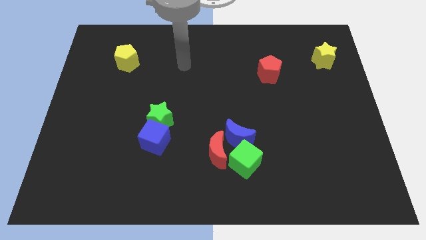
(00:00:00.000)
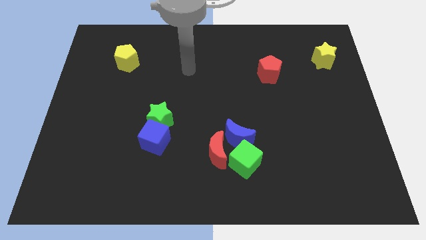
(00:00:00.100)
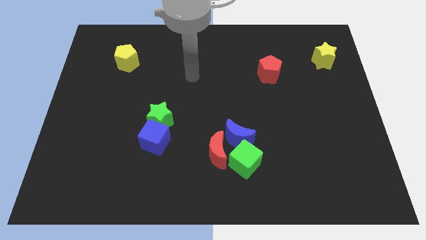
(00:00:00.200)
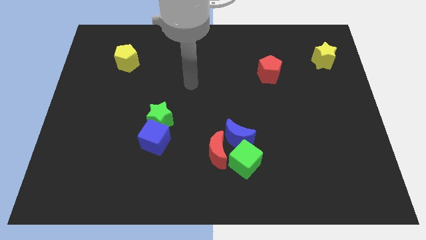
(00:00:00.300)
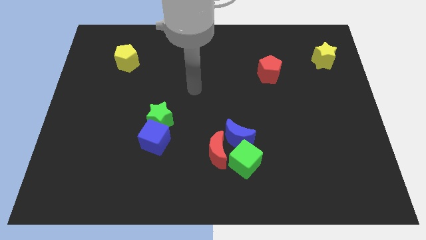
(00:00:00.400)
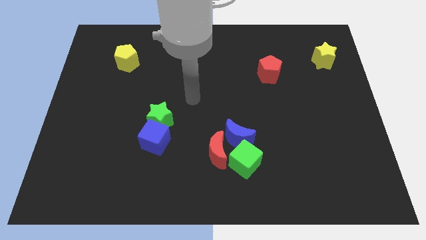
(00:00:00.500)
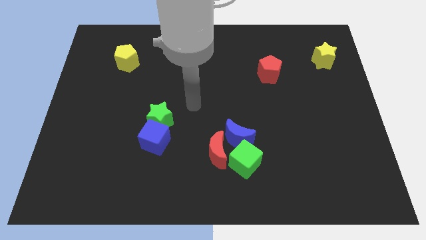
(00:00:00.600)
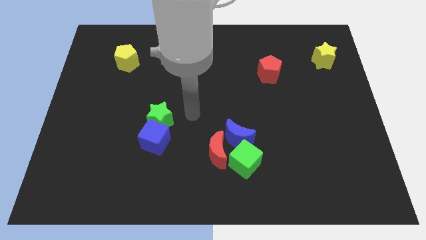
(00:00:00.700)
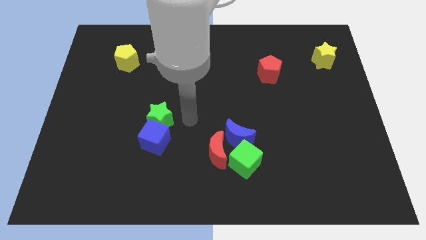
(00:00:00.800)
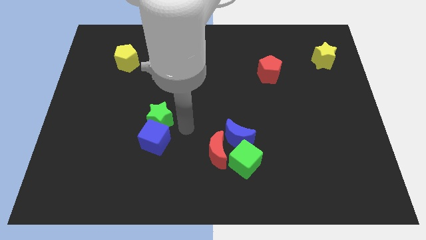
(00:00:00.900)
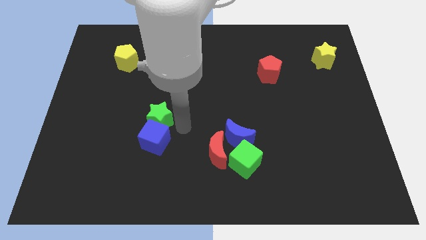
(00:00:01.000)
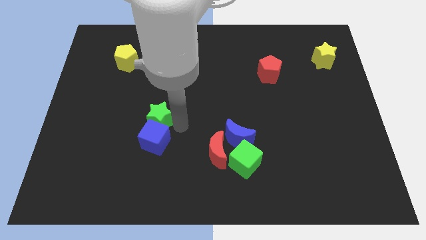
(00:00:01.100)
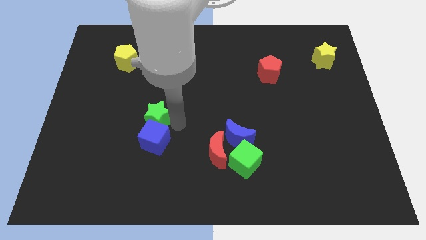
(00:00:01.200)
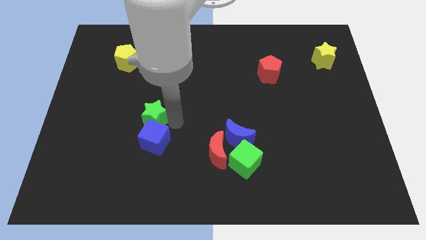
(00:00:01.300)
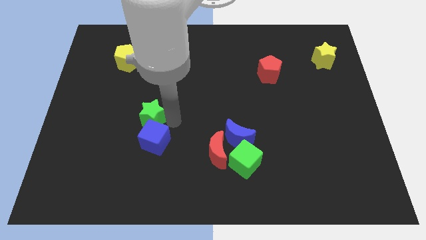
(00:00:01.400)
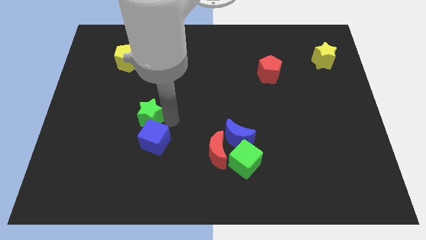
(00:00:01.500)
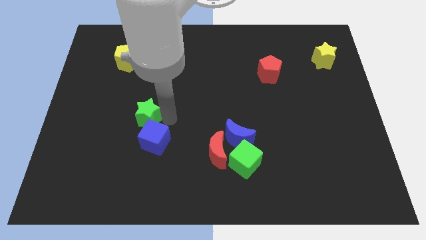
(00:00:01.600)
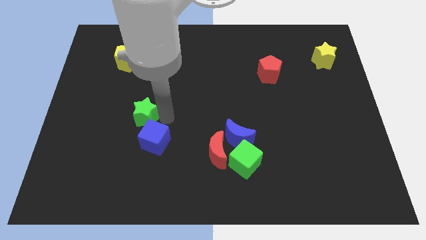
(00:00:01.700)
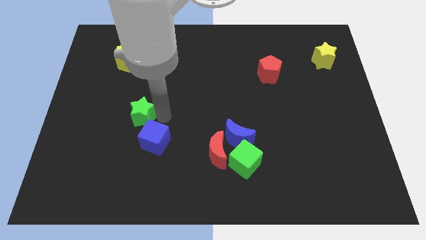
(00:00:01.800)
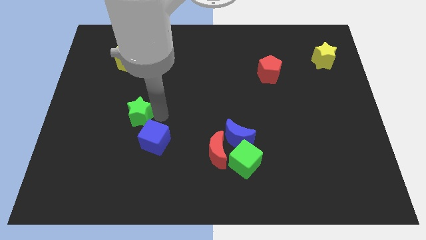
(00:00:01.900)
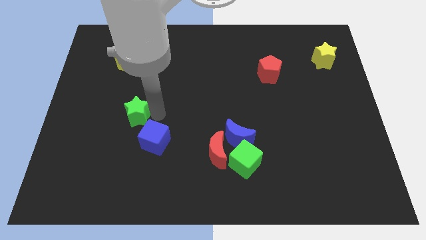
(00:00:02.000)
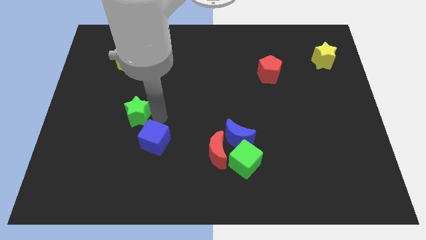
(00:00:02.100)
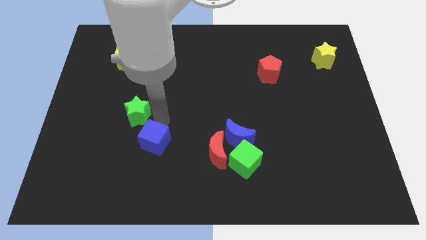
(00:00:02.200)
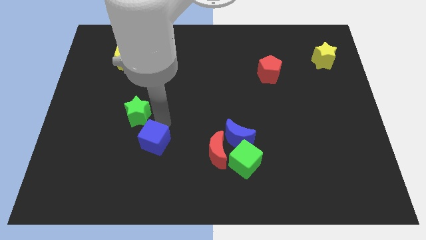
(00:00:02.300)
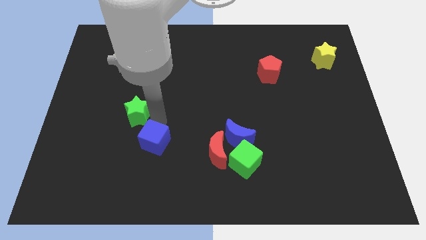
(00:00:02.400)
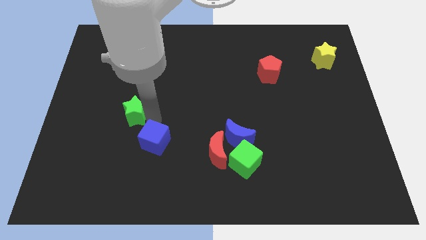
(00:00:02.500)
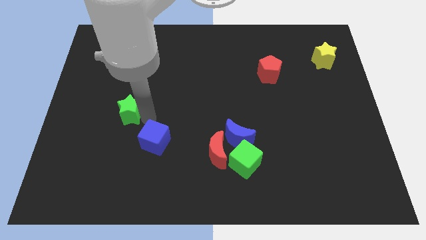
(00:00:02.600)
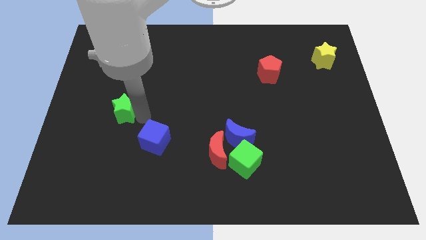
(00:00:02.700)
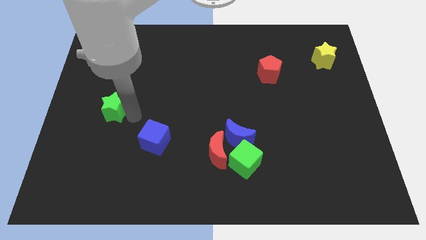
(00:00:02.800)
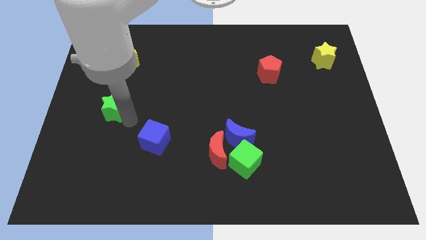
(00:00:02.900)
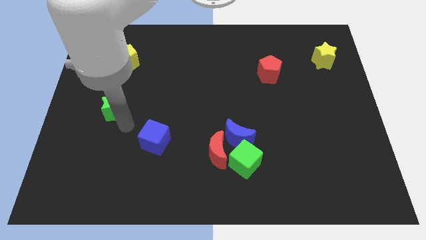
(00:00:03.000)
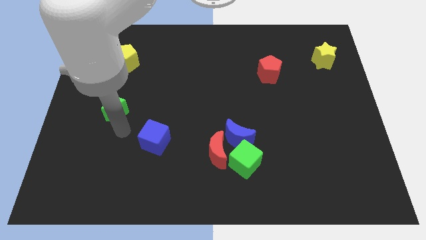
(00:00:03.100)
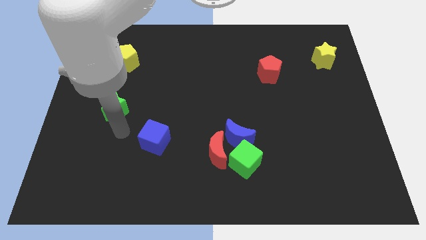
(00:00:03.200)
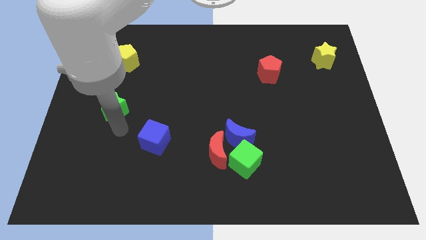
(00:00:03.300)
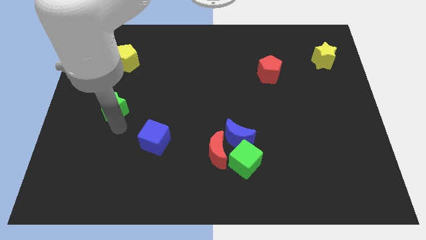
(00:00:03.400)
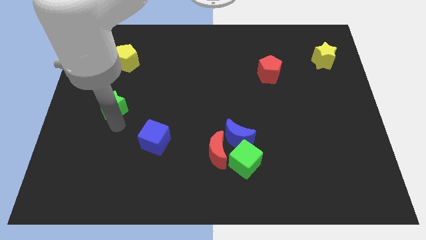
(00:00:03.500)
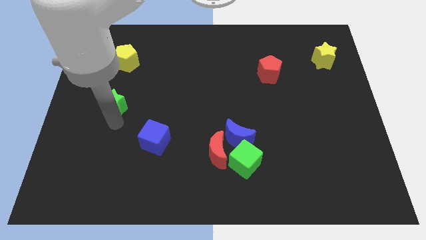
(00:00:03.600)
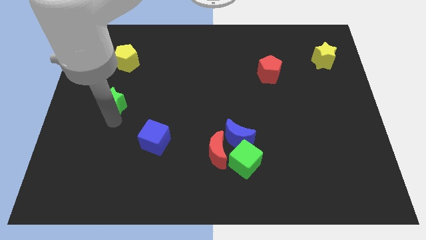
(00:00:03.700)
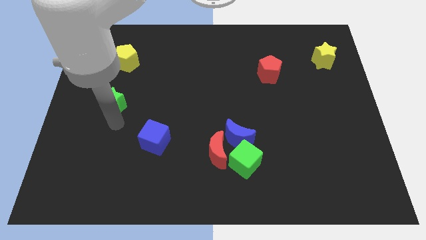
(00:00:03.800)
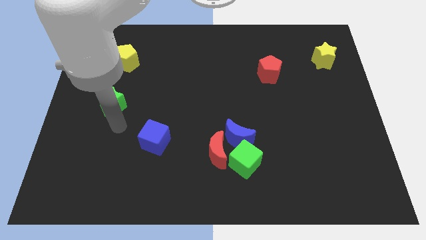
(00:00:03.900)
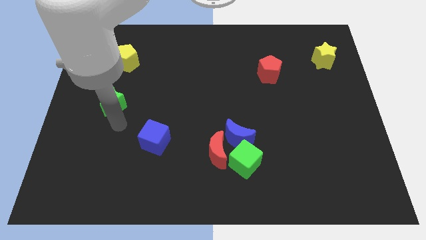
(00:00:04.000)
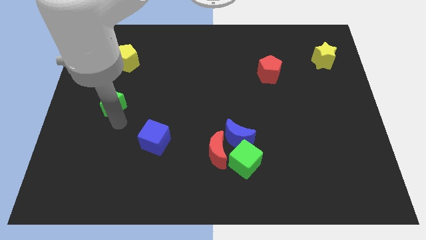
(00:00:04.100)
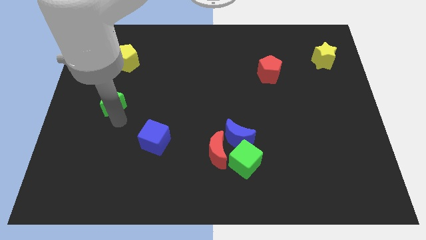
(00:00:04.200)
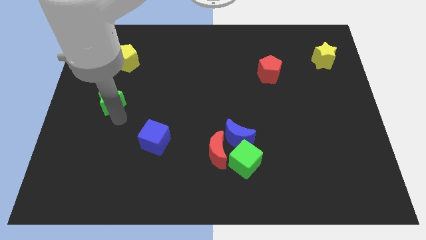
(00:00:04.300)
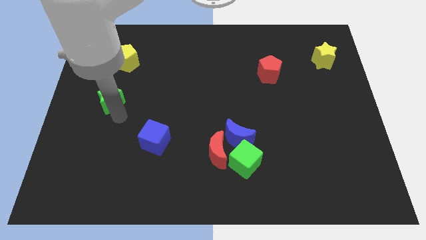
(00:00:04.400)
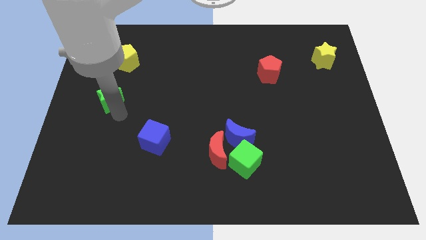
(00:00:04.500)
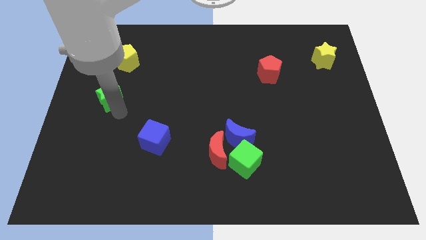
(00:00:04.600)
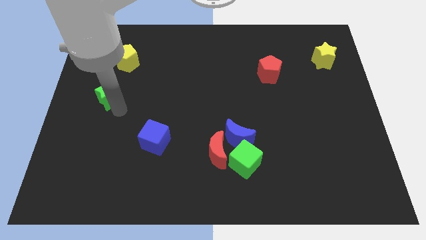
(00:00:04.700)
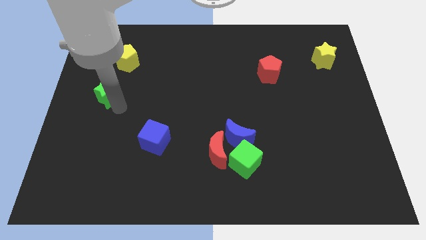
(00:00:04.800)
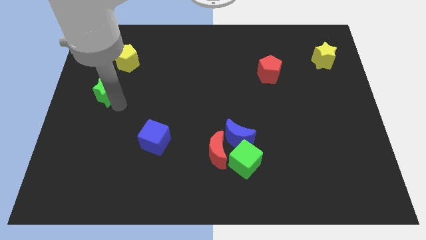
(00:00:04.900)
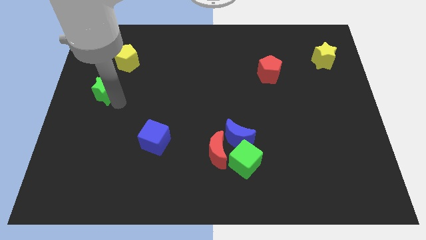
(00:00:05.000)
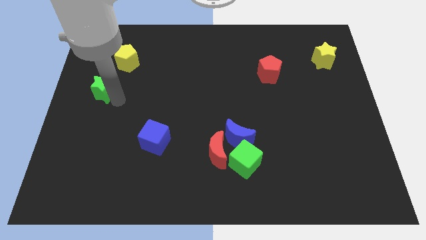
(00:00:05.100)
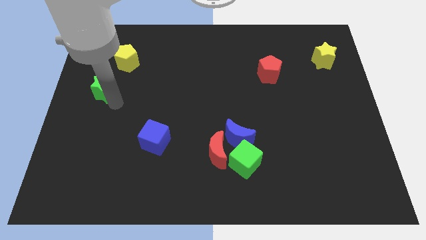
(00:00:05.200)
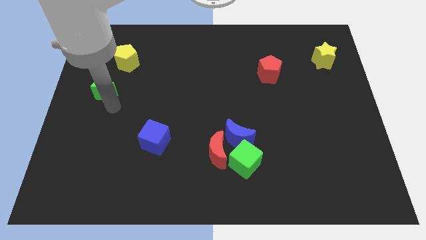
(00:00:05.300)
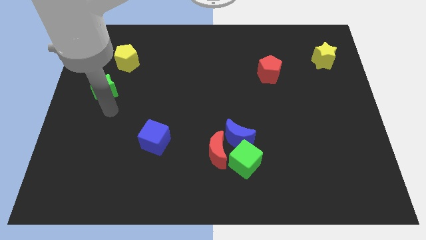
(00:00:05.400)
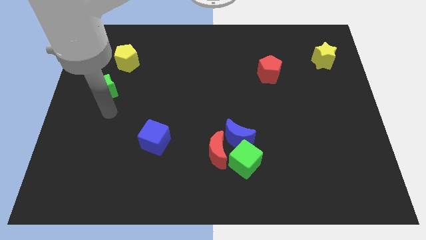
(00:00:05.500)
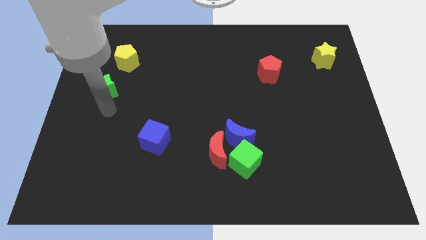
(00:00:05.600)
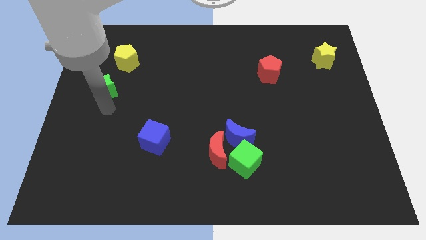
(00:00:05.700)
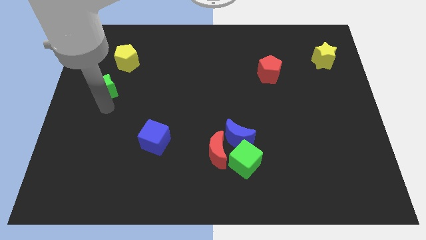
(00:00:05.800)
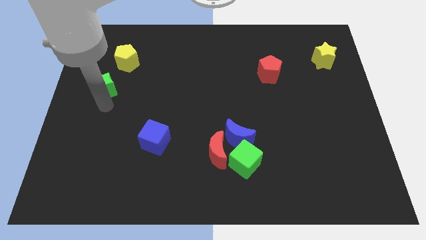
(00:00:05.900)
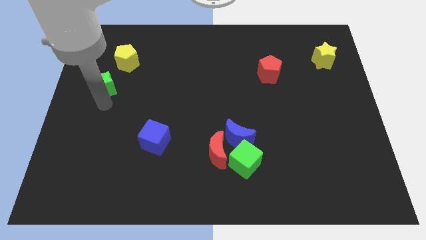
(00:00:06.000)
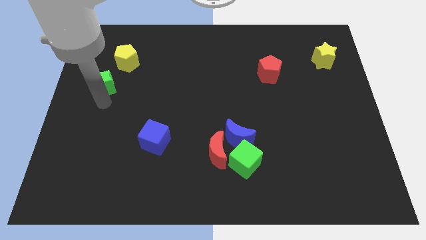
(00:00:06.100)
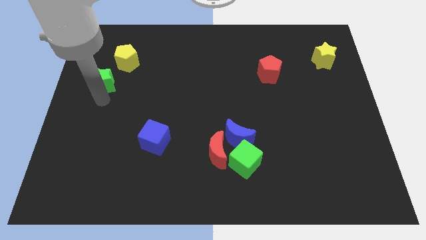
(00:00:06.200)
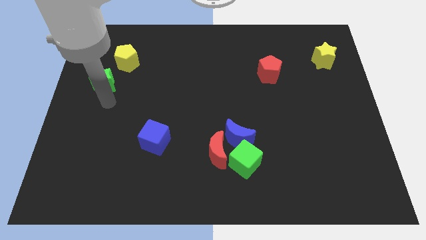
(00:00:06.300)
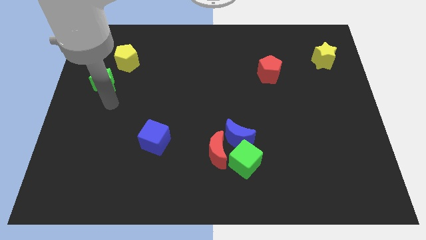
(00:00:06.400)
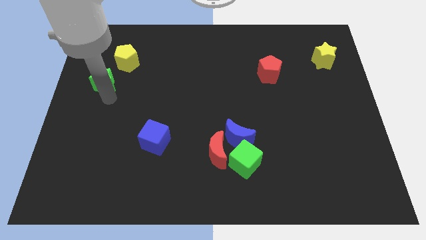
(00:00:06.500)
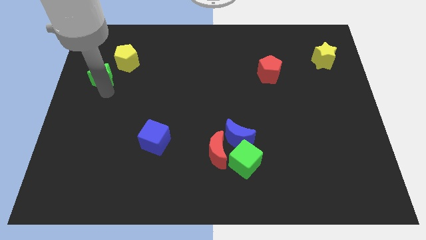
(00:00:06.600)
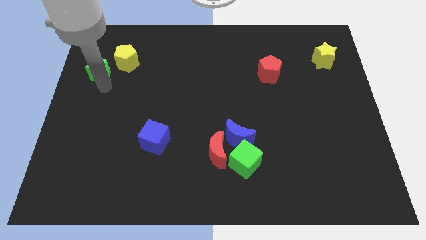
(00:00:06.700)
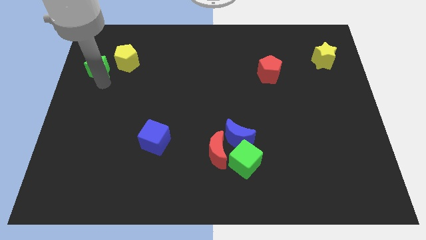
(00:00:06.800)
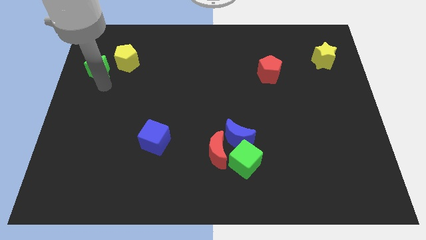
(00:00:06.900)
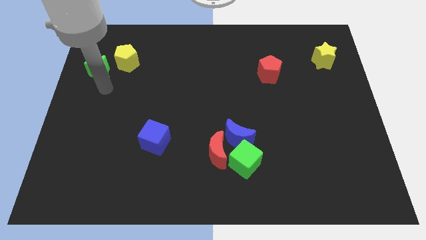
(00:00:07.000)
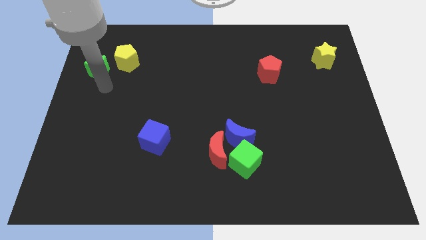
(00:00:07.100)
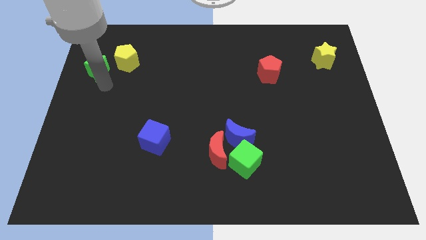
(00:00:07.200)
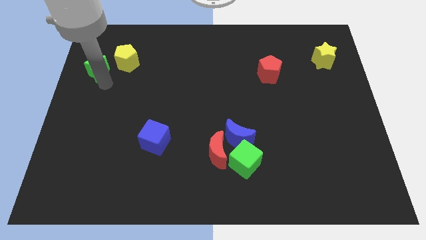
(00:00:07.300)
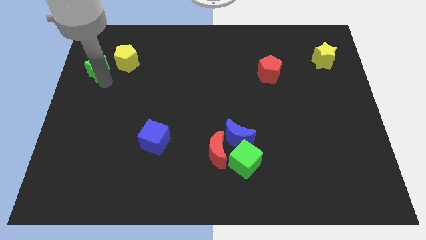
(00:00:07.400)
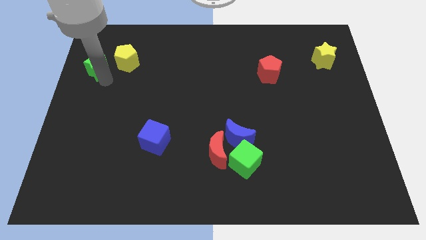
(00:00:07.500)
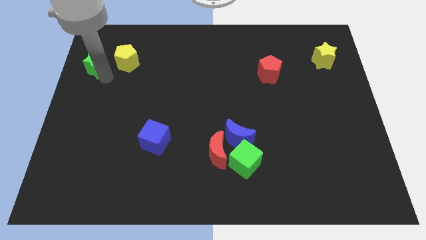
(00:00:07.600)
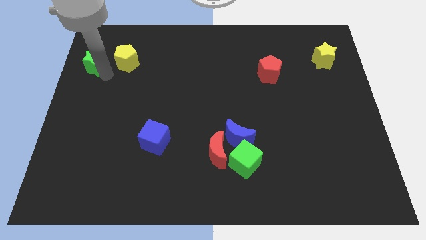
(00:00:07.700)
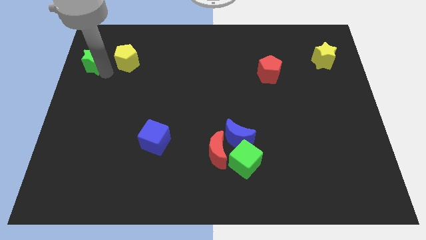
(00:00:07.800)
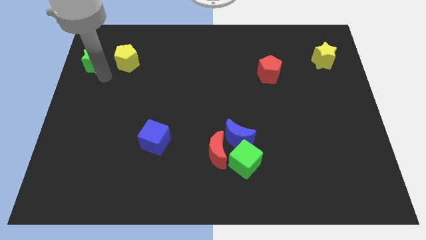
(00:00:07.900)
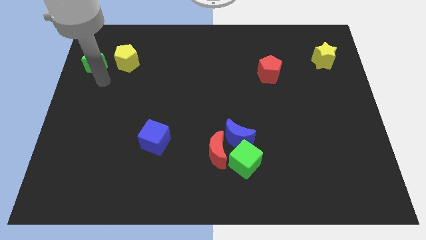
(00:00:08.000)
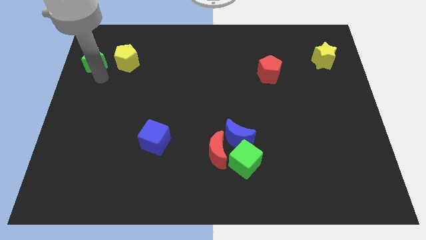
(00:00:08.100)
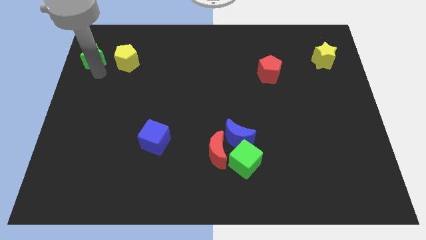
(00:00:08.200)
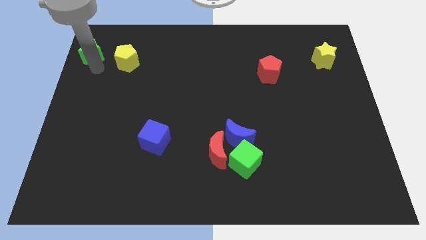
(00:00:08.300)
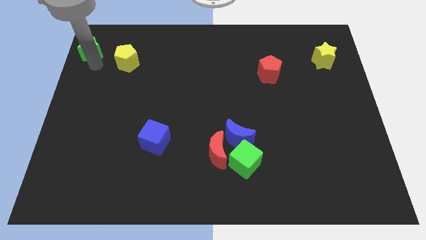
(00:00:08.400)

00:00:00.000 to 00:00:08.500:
slide the green star to the top left of the board
